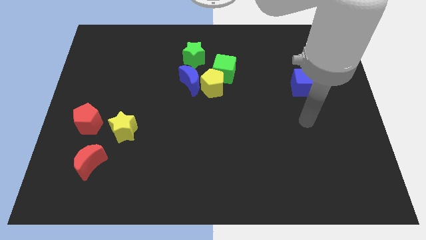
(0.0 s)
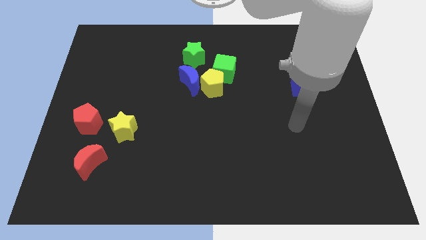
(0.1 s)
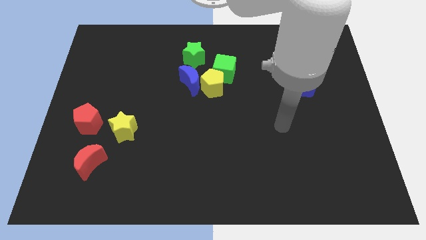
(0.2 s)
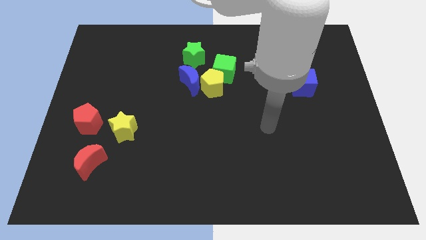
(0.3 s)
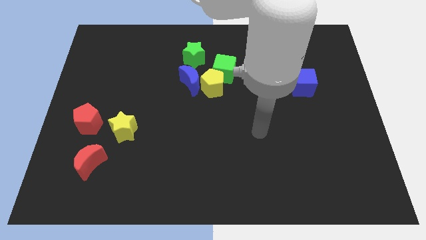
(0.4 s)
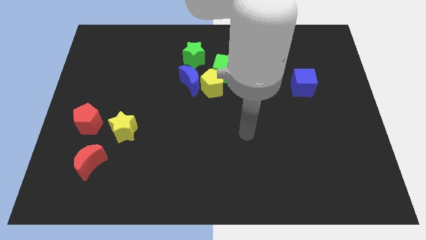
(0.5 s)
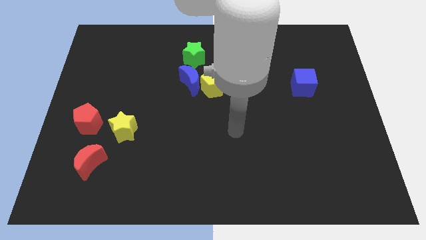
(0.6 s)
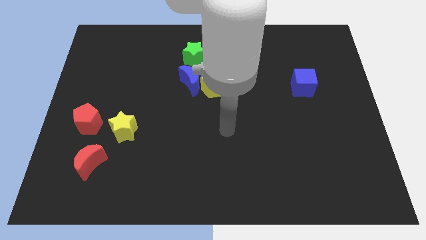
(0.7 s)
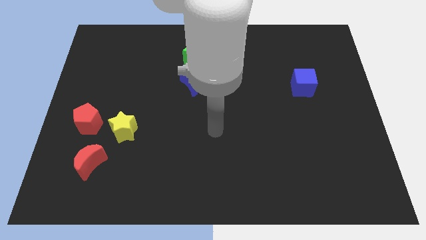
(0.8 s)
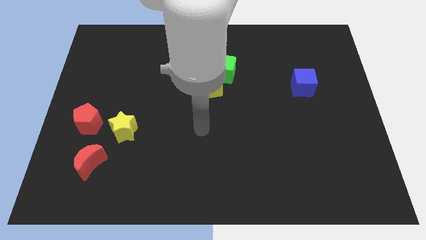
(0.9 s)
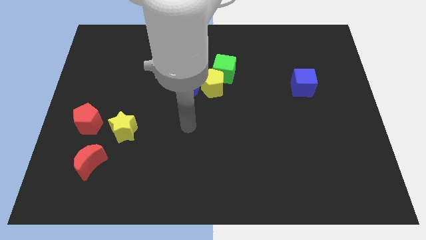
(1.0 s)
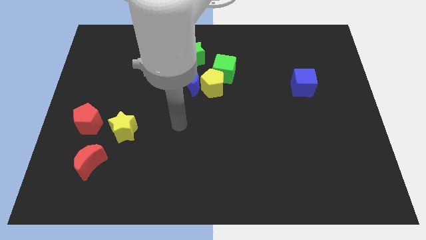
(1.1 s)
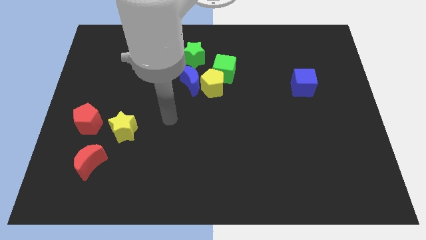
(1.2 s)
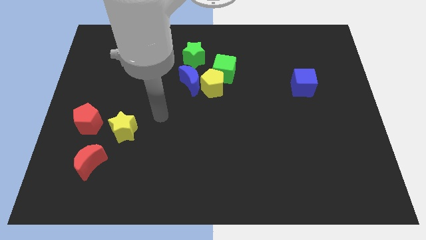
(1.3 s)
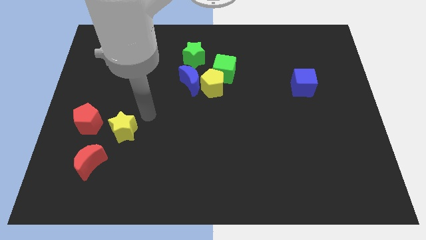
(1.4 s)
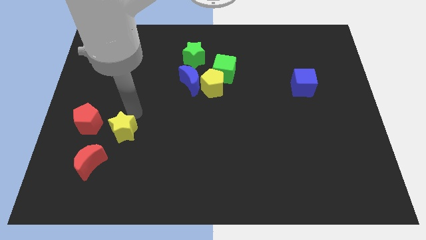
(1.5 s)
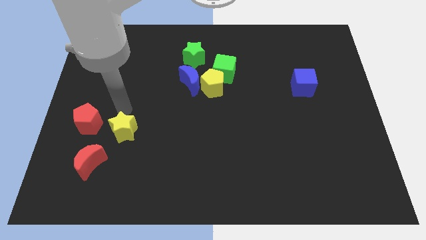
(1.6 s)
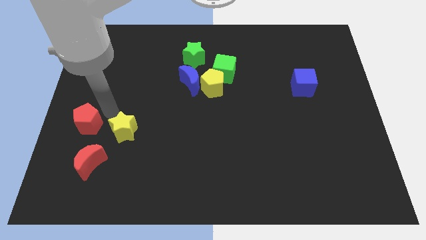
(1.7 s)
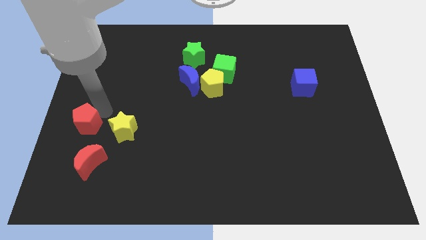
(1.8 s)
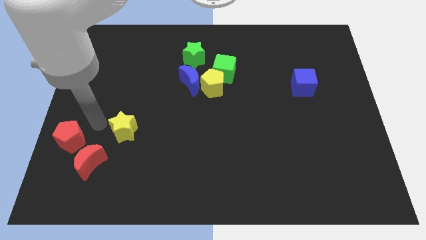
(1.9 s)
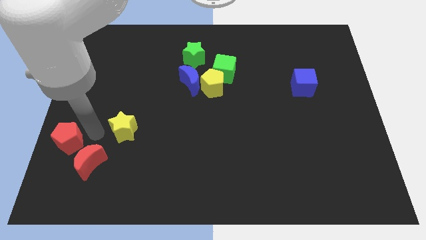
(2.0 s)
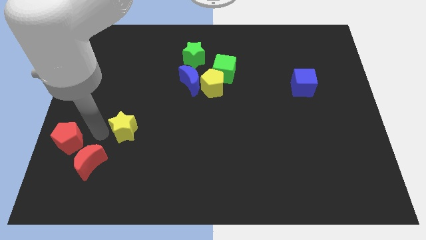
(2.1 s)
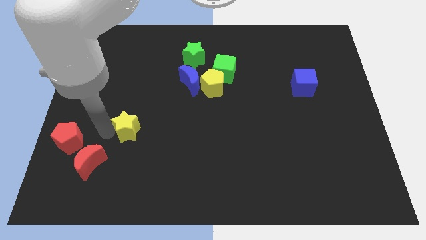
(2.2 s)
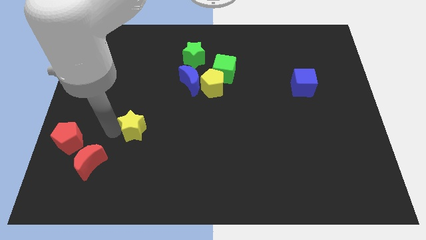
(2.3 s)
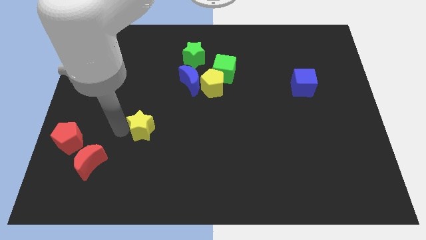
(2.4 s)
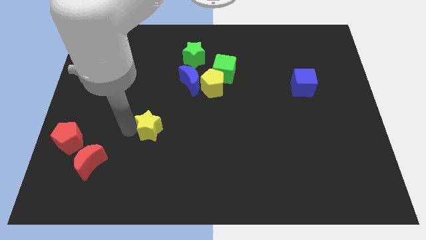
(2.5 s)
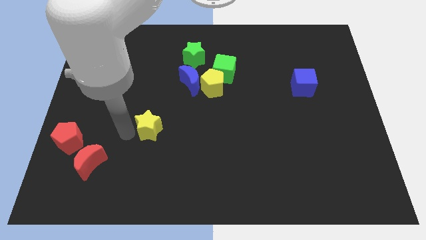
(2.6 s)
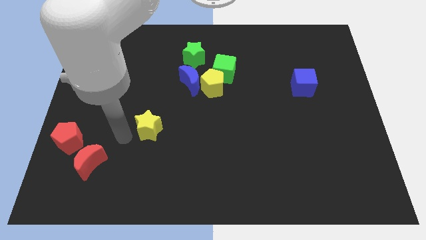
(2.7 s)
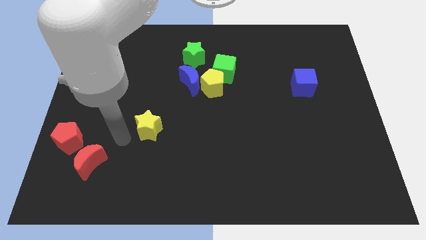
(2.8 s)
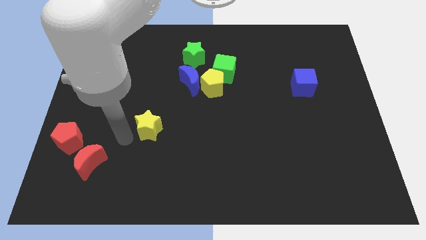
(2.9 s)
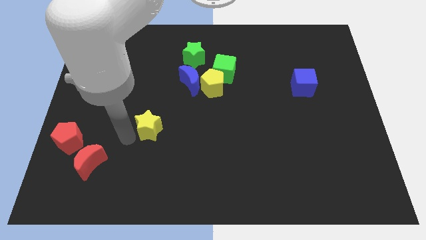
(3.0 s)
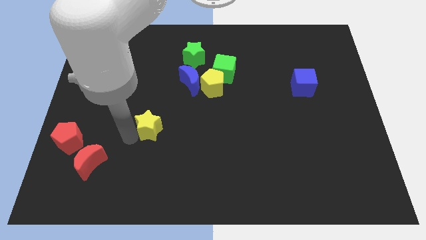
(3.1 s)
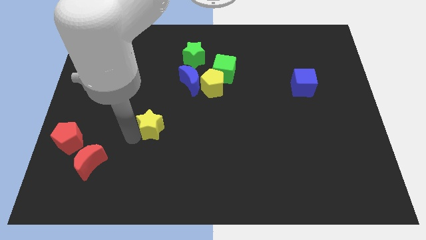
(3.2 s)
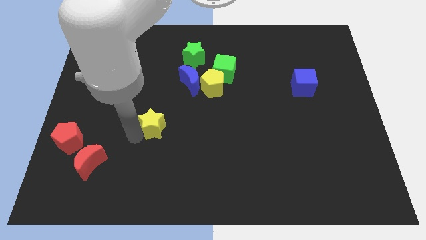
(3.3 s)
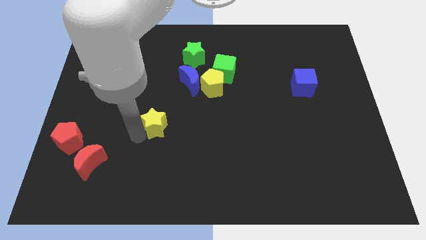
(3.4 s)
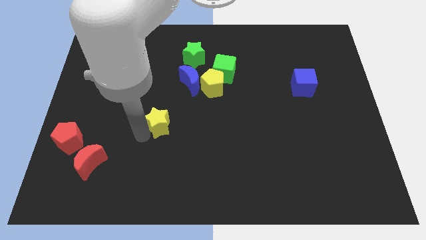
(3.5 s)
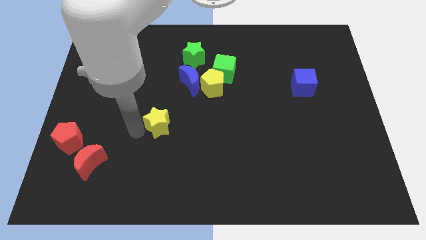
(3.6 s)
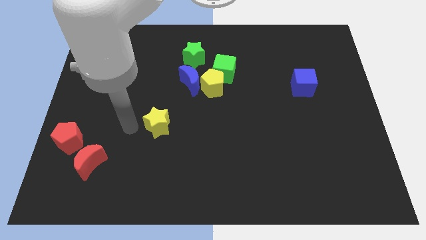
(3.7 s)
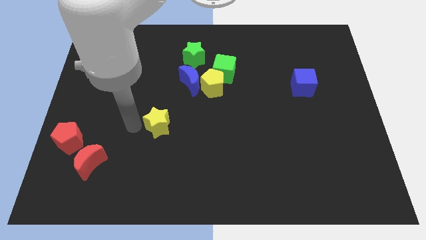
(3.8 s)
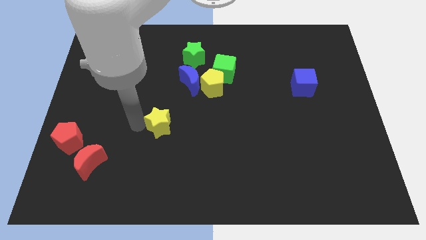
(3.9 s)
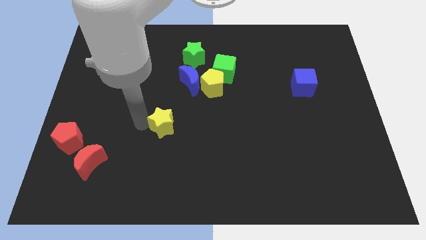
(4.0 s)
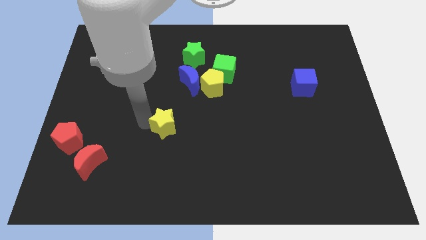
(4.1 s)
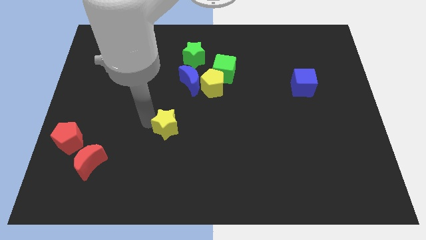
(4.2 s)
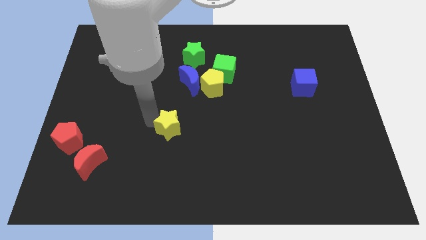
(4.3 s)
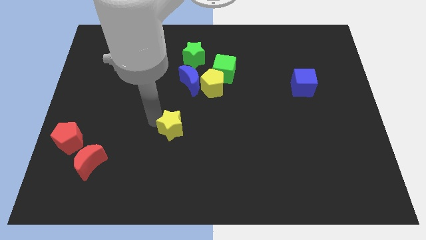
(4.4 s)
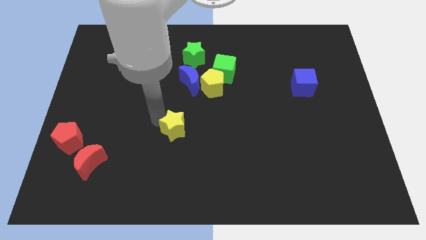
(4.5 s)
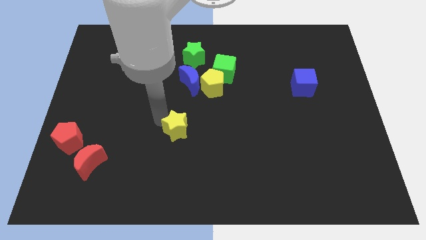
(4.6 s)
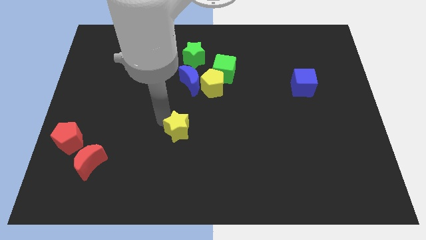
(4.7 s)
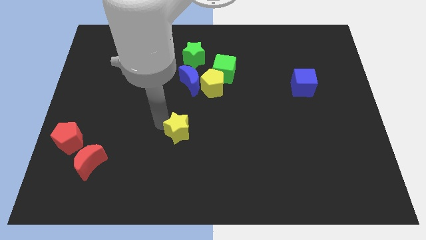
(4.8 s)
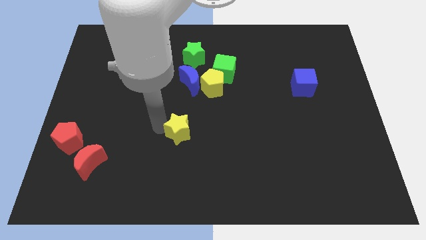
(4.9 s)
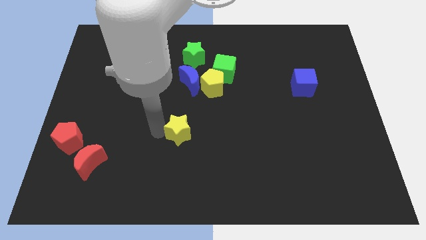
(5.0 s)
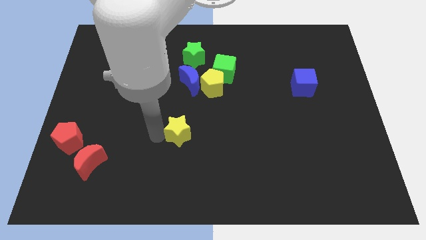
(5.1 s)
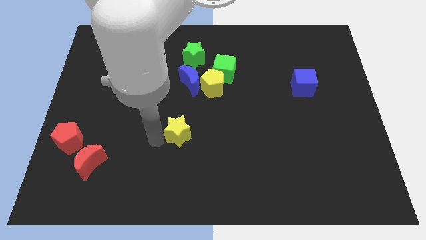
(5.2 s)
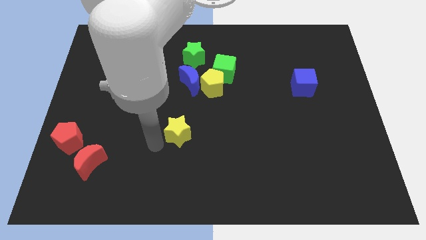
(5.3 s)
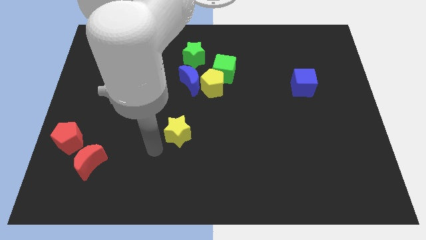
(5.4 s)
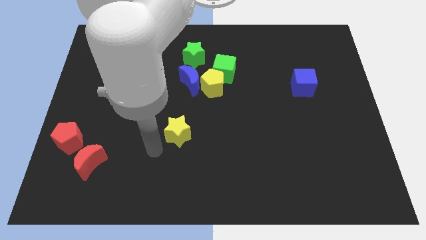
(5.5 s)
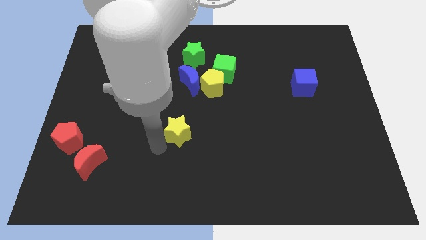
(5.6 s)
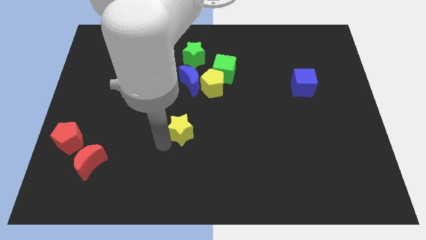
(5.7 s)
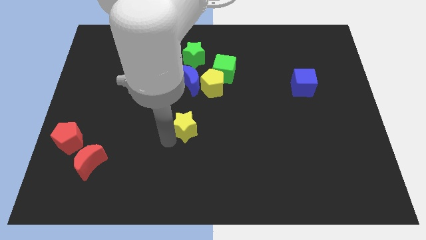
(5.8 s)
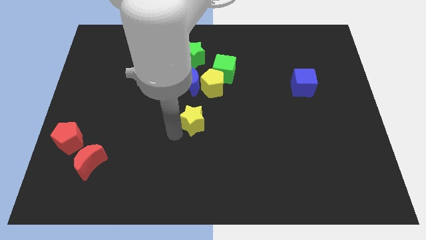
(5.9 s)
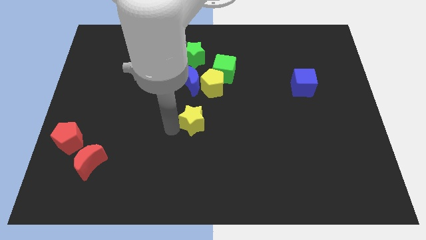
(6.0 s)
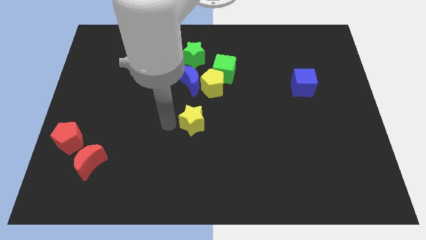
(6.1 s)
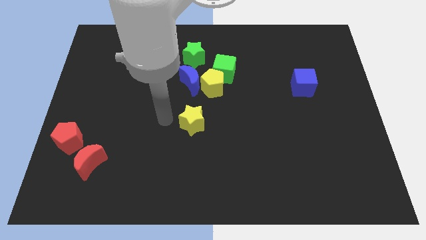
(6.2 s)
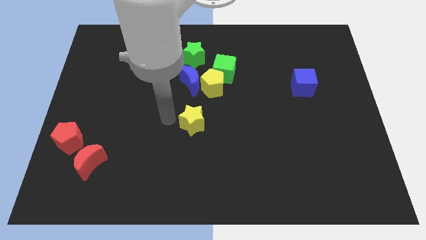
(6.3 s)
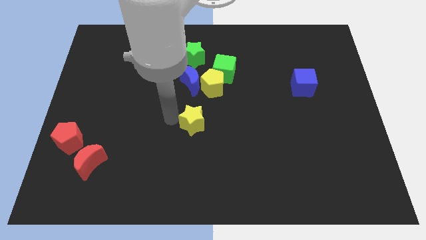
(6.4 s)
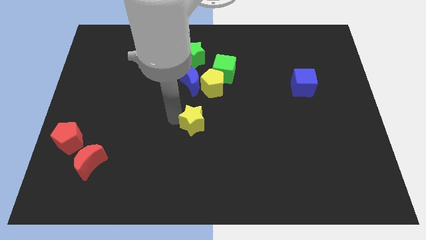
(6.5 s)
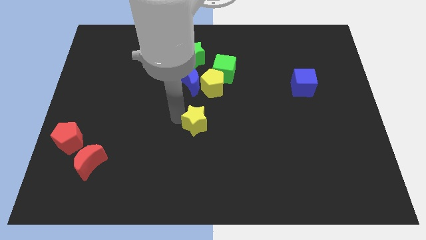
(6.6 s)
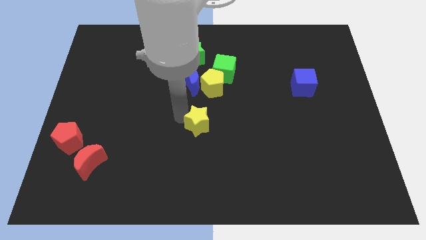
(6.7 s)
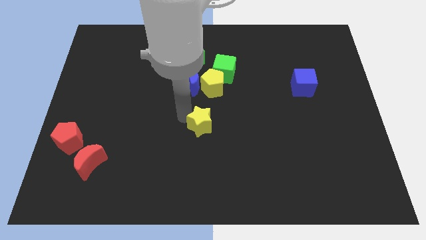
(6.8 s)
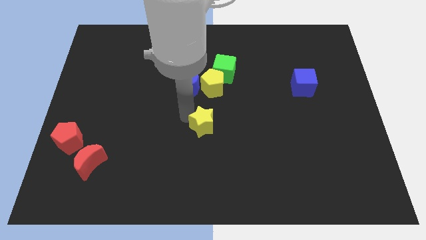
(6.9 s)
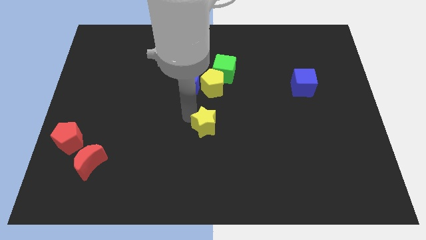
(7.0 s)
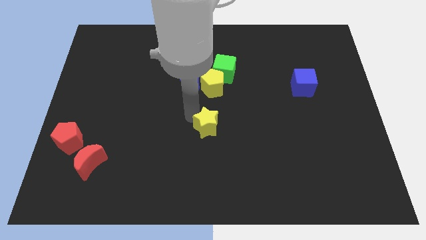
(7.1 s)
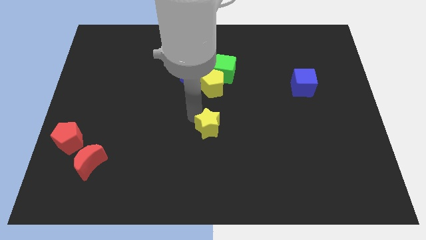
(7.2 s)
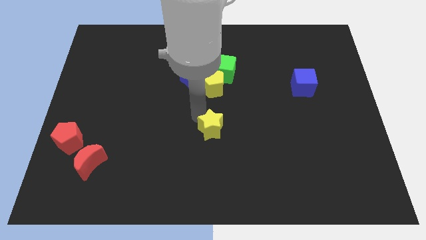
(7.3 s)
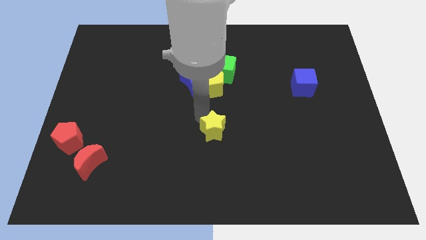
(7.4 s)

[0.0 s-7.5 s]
move the yellow star right

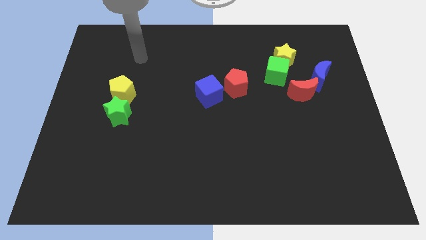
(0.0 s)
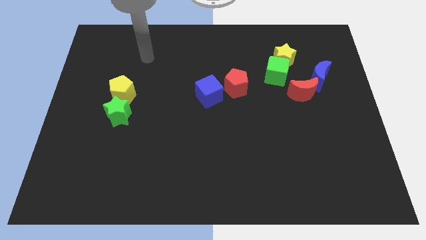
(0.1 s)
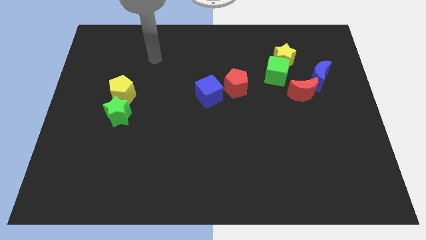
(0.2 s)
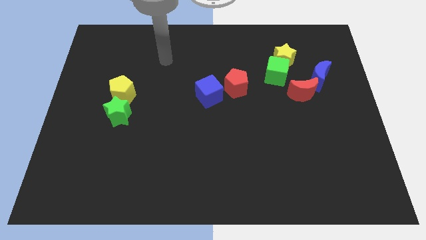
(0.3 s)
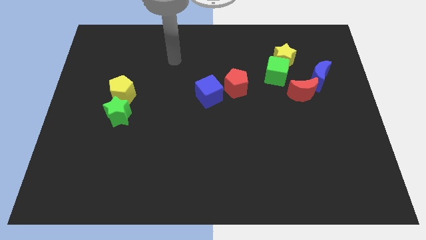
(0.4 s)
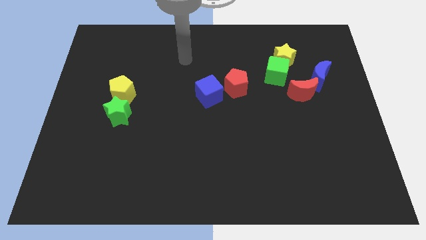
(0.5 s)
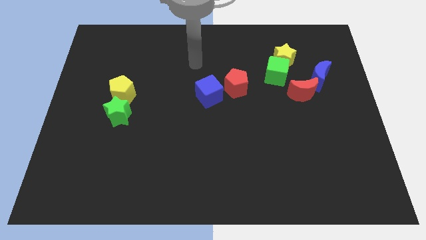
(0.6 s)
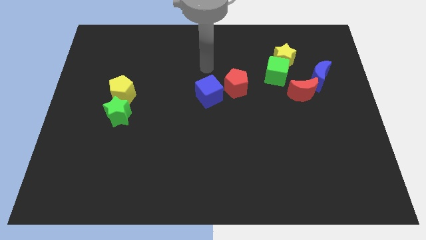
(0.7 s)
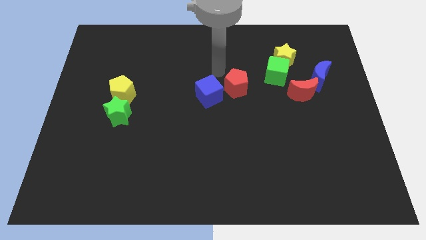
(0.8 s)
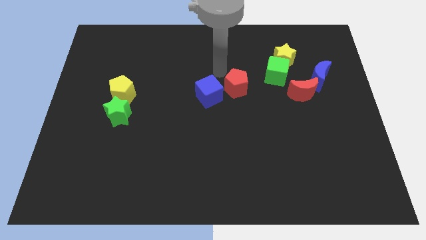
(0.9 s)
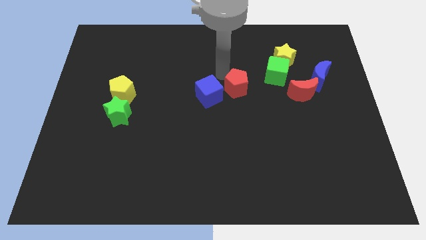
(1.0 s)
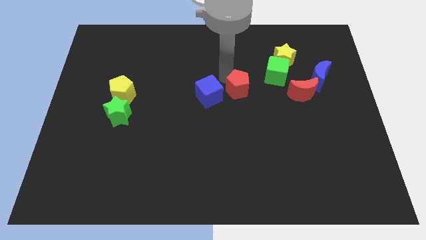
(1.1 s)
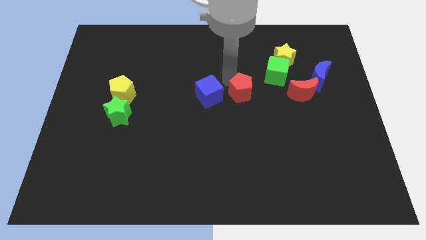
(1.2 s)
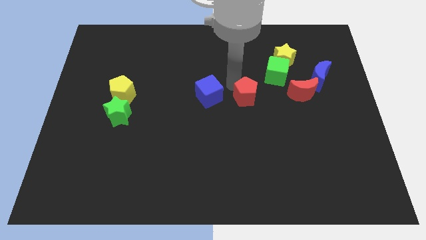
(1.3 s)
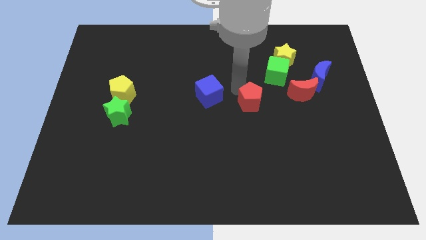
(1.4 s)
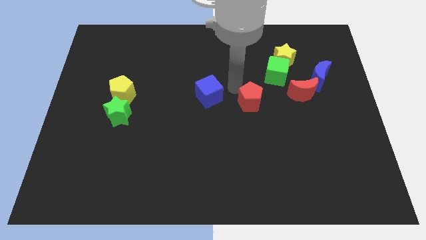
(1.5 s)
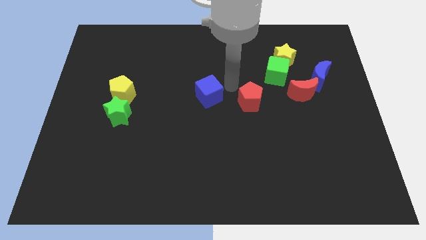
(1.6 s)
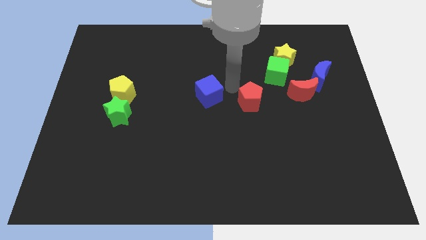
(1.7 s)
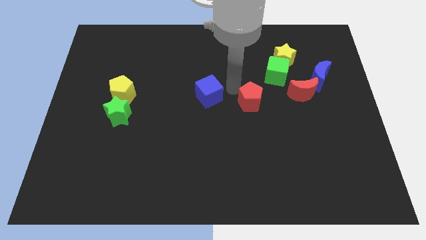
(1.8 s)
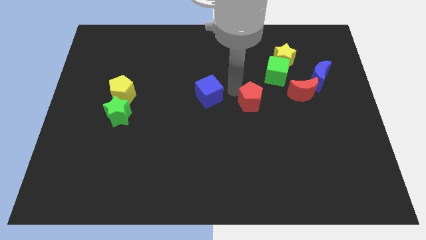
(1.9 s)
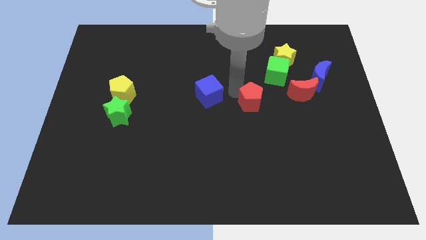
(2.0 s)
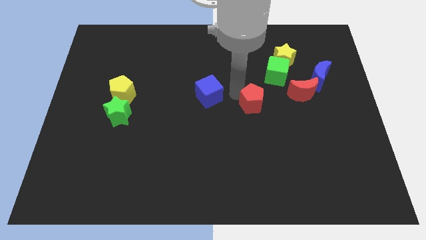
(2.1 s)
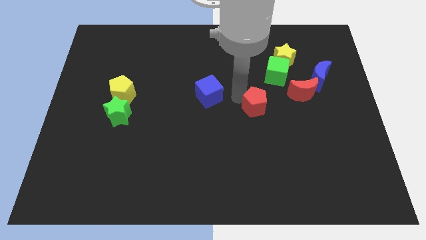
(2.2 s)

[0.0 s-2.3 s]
move the red pentagon a bit diagonally down and right
